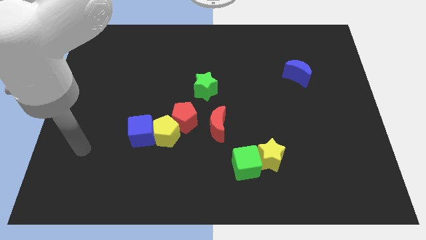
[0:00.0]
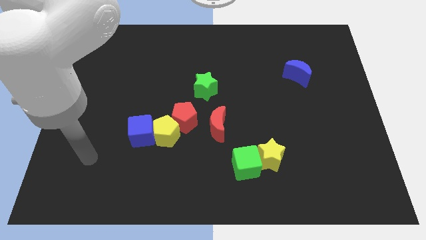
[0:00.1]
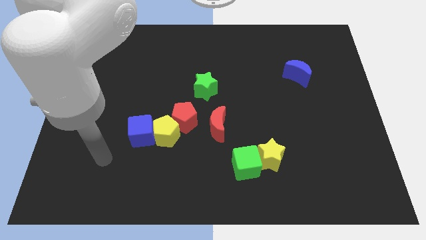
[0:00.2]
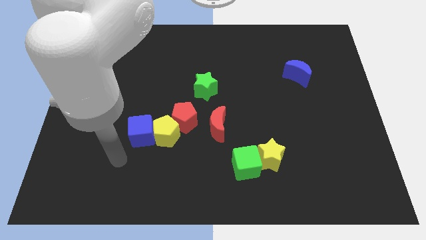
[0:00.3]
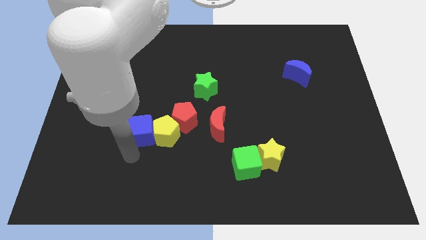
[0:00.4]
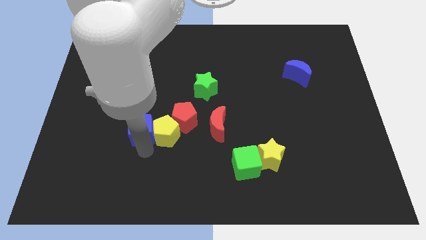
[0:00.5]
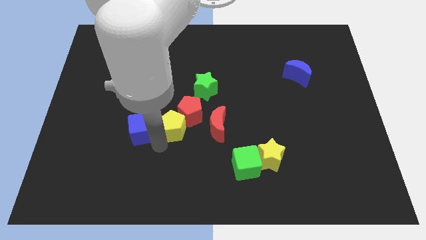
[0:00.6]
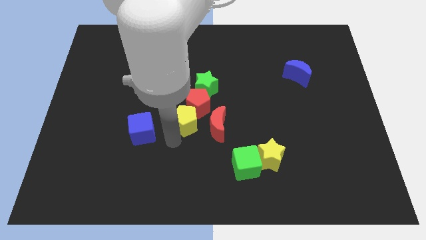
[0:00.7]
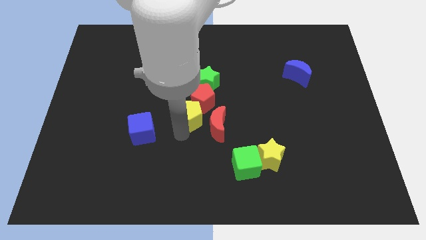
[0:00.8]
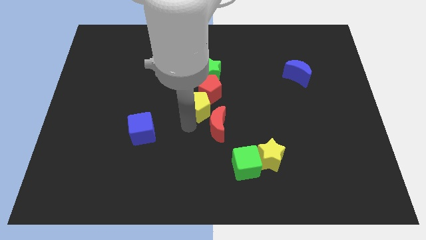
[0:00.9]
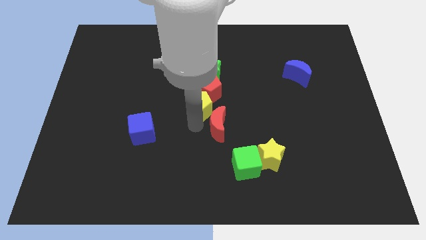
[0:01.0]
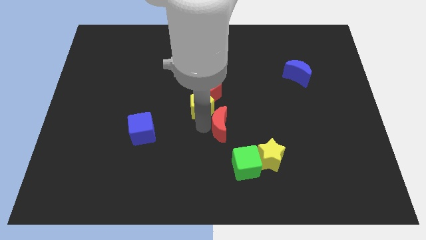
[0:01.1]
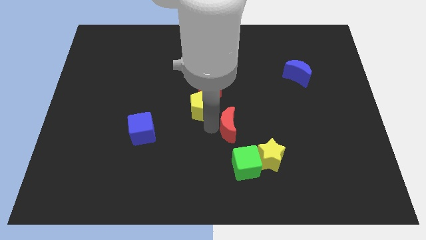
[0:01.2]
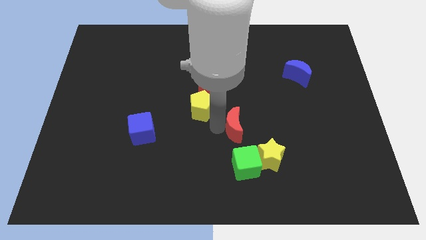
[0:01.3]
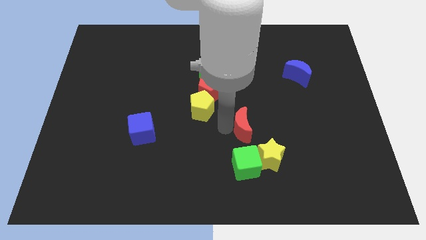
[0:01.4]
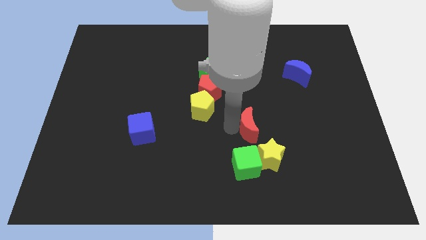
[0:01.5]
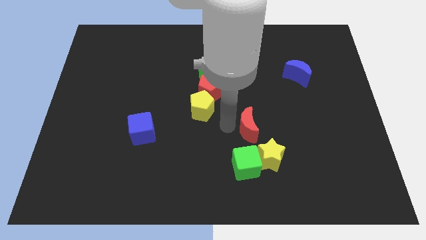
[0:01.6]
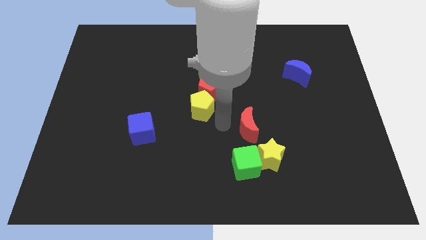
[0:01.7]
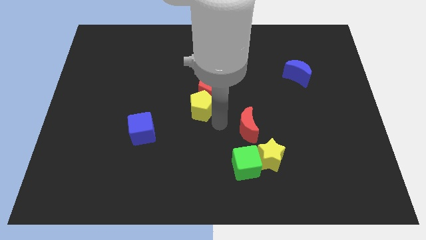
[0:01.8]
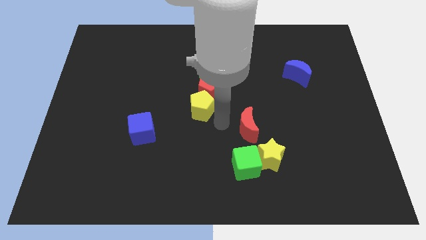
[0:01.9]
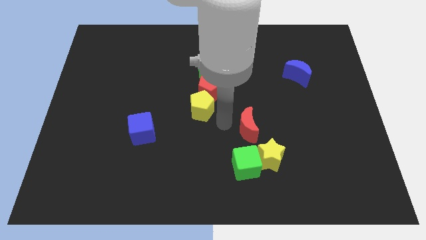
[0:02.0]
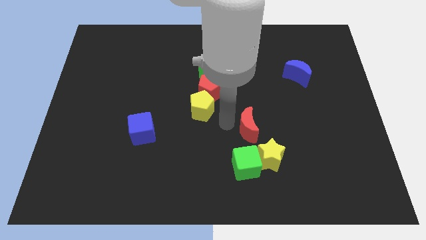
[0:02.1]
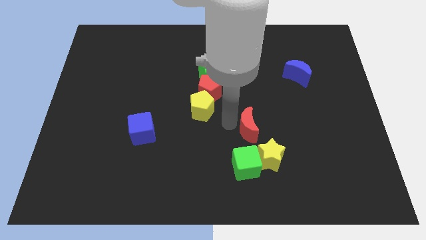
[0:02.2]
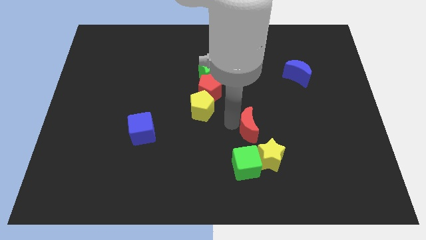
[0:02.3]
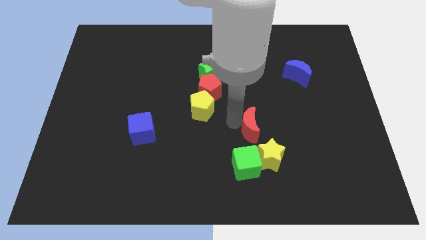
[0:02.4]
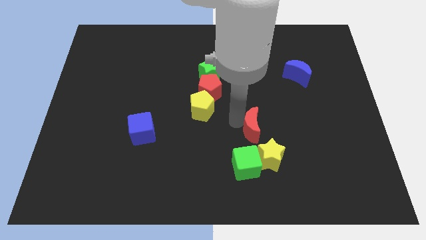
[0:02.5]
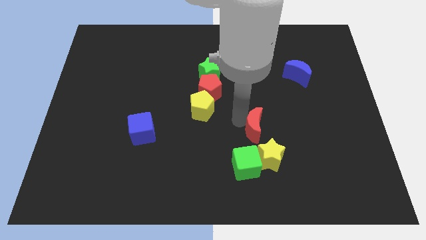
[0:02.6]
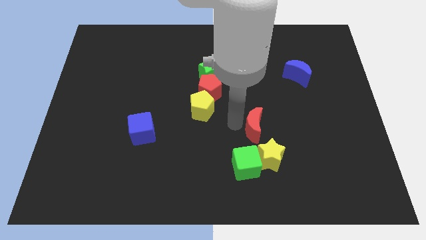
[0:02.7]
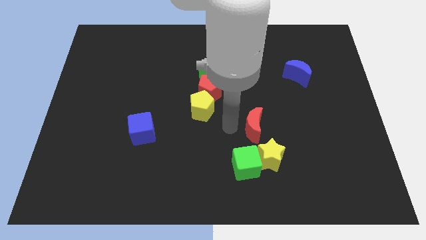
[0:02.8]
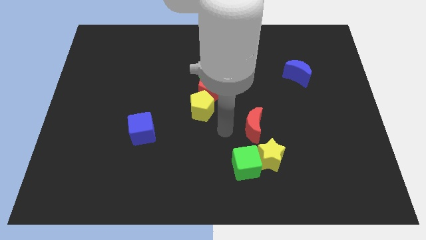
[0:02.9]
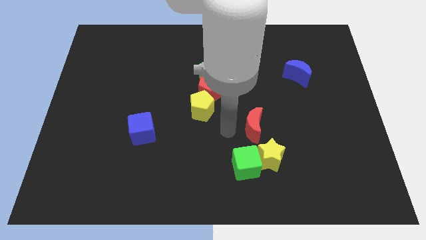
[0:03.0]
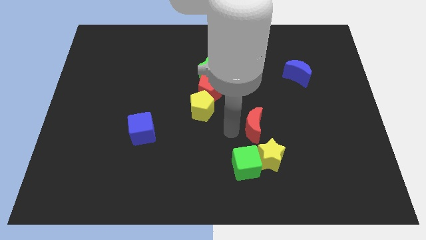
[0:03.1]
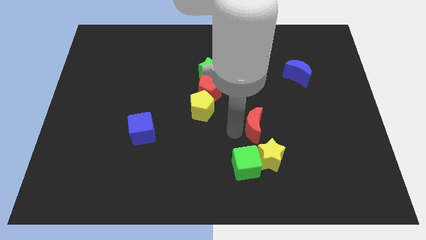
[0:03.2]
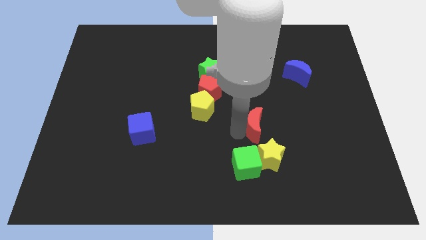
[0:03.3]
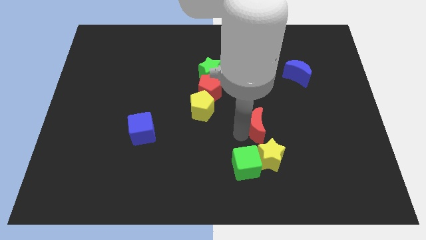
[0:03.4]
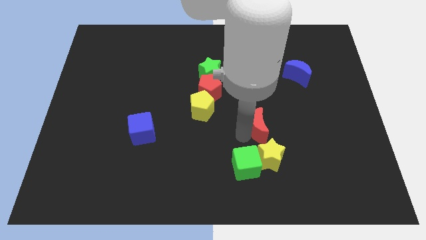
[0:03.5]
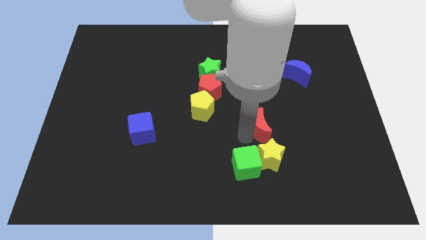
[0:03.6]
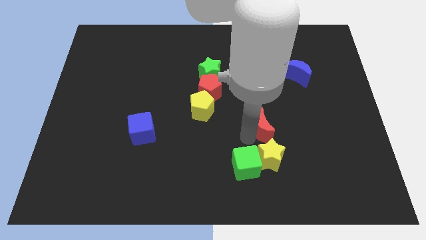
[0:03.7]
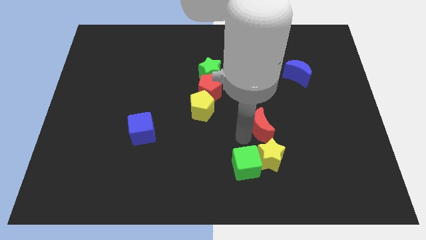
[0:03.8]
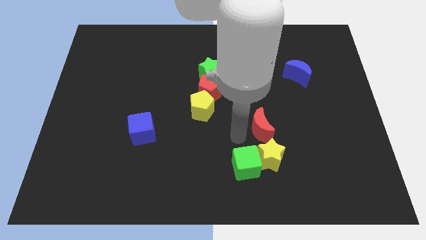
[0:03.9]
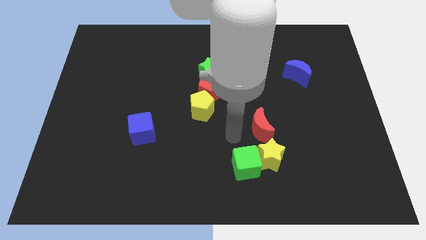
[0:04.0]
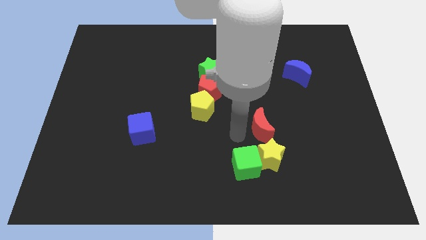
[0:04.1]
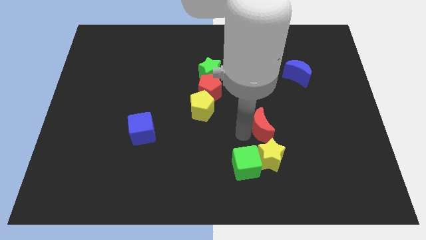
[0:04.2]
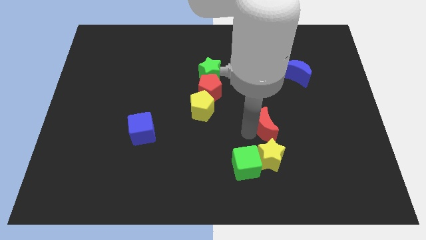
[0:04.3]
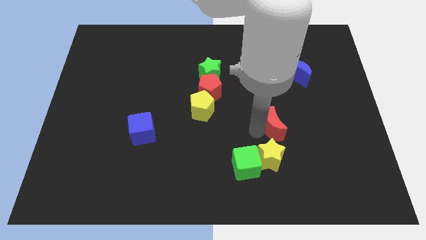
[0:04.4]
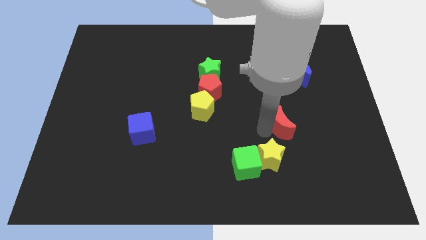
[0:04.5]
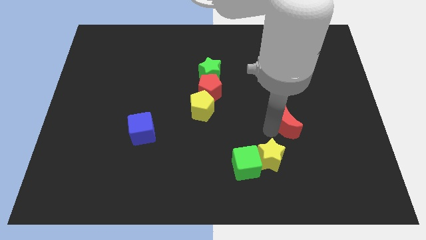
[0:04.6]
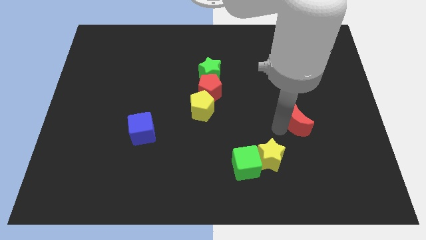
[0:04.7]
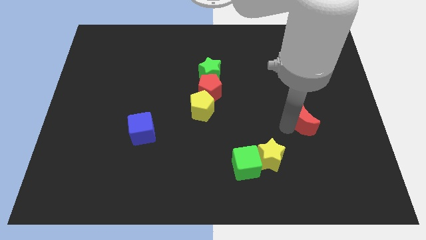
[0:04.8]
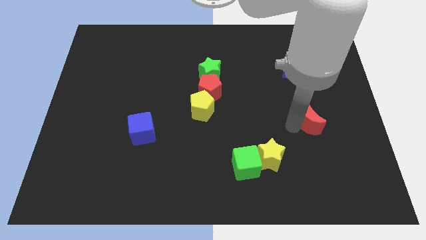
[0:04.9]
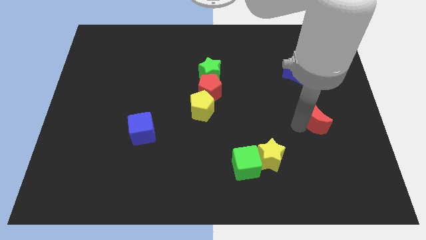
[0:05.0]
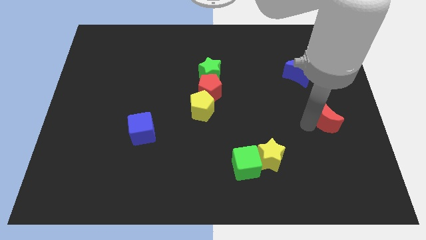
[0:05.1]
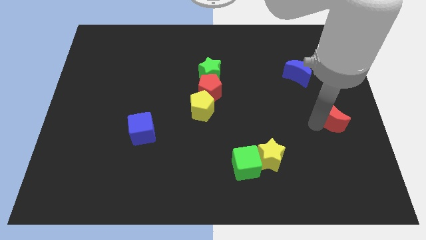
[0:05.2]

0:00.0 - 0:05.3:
slide the red moon to the right side of the board

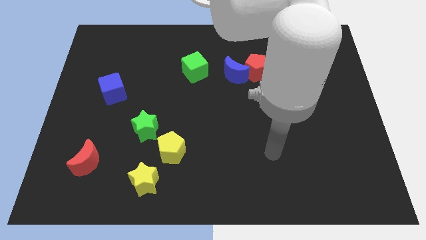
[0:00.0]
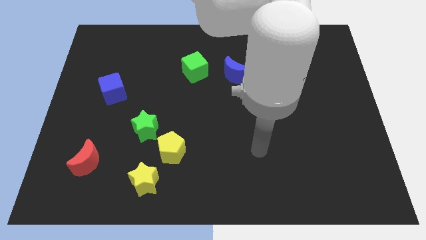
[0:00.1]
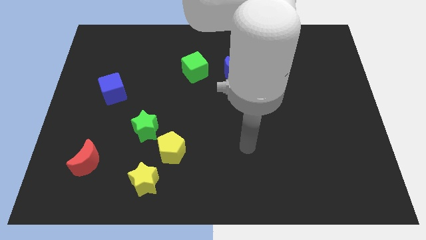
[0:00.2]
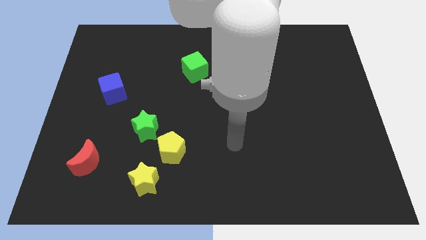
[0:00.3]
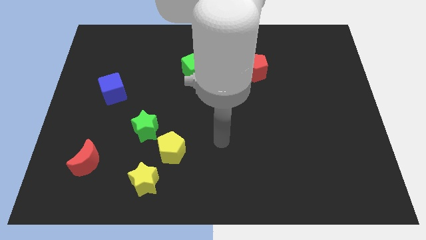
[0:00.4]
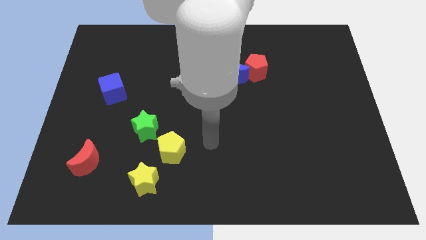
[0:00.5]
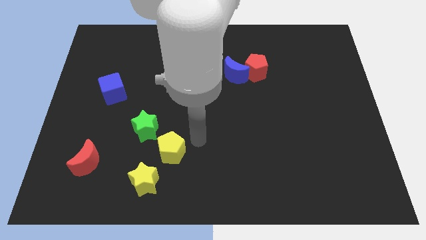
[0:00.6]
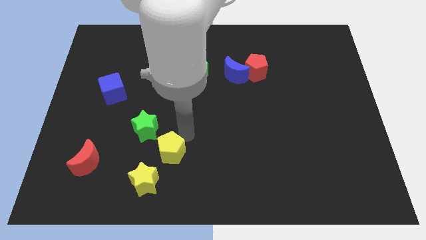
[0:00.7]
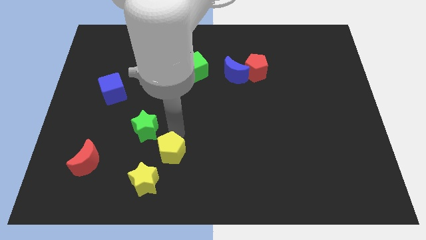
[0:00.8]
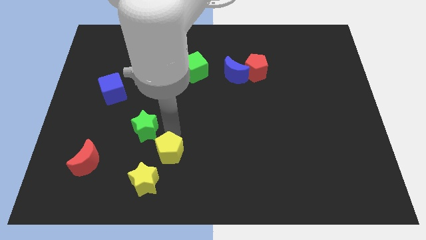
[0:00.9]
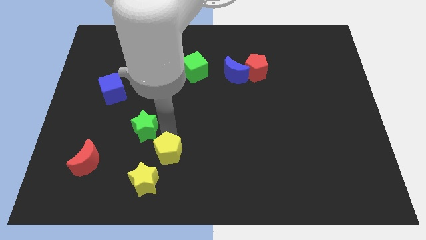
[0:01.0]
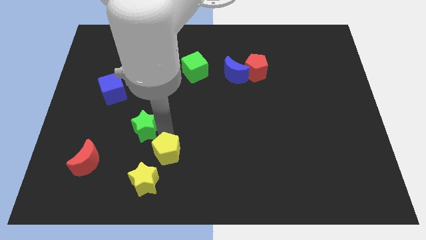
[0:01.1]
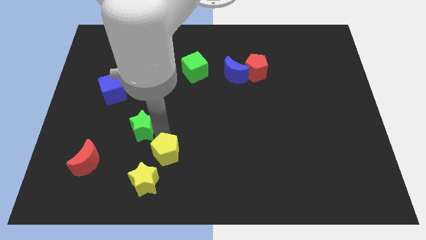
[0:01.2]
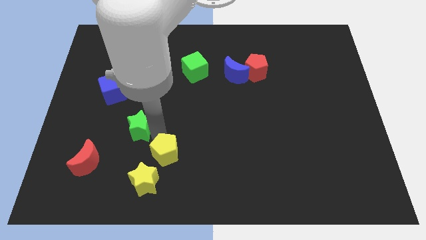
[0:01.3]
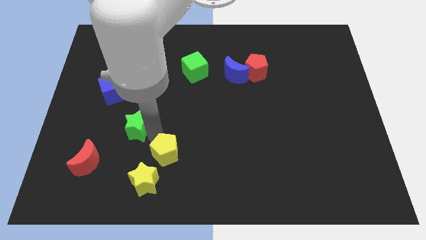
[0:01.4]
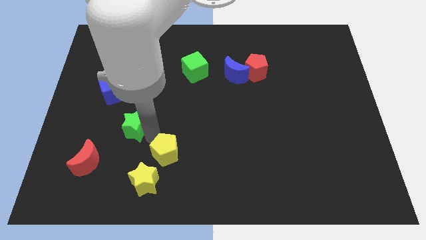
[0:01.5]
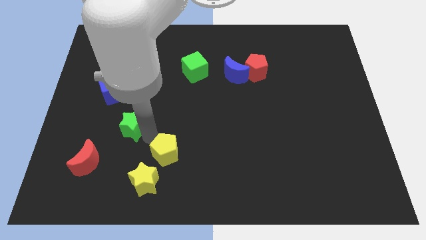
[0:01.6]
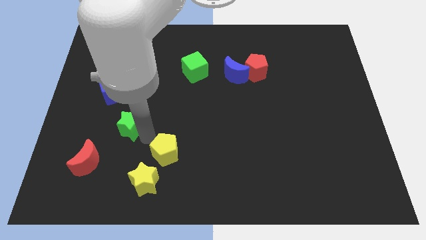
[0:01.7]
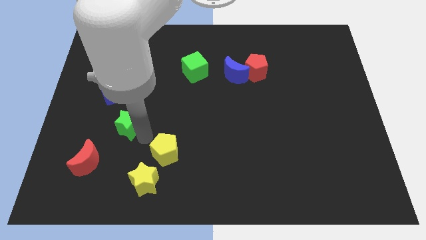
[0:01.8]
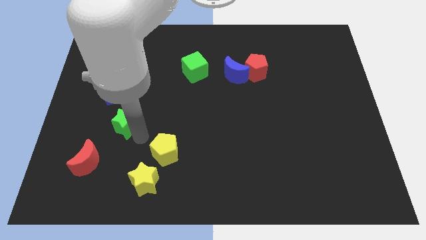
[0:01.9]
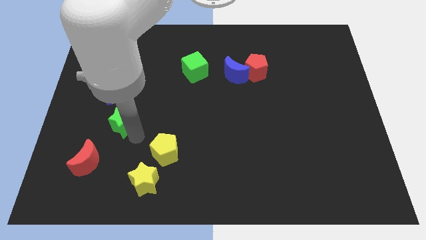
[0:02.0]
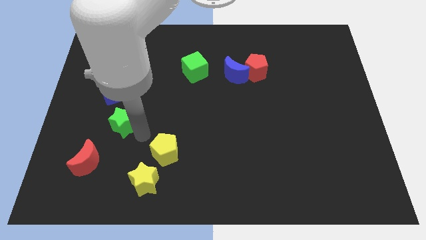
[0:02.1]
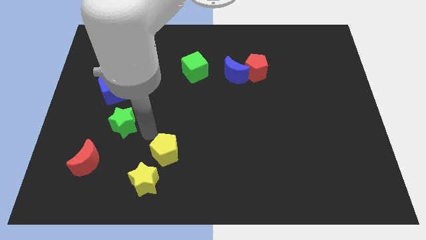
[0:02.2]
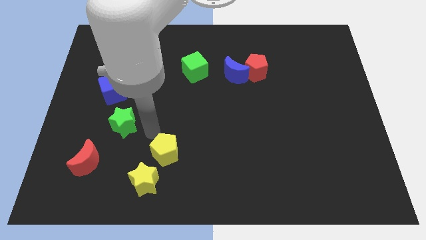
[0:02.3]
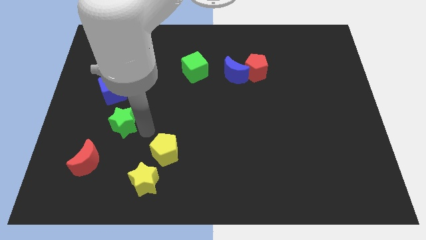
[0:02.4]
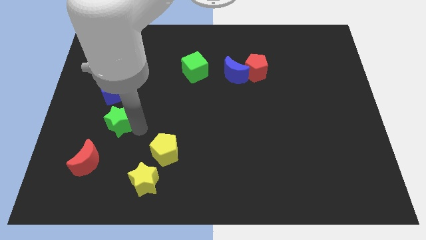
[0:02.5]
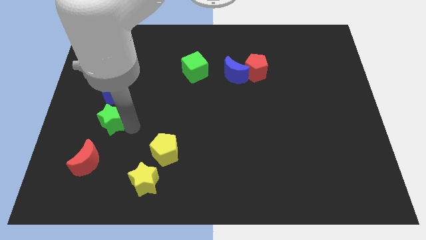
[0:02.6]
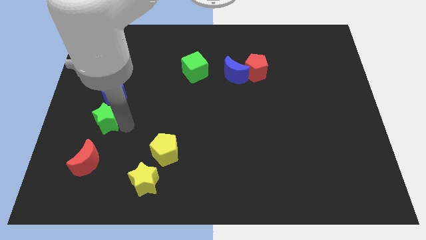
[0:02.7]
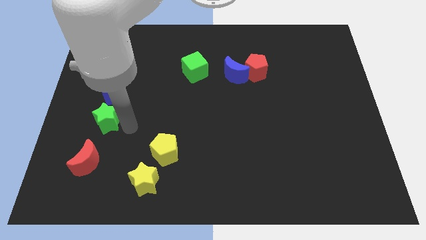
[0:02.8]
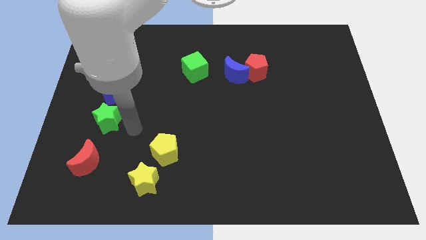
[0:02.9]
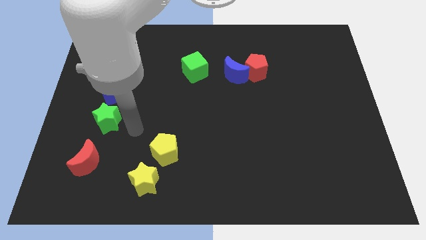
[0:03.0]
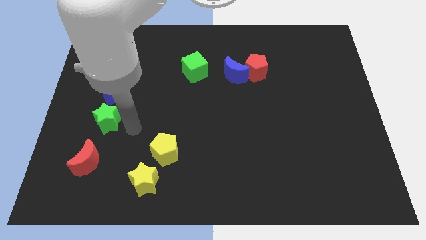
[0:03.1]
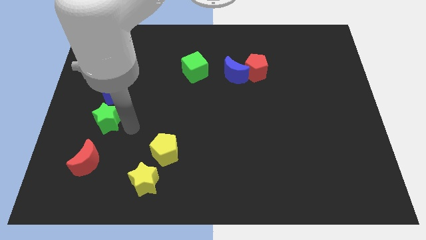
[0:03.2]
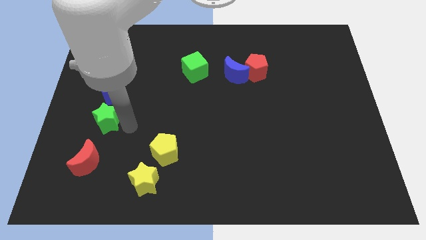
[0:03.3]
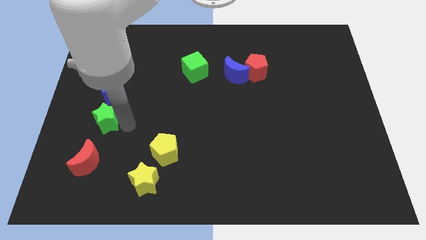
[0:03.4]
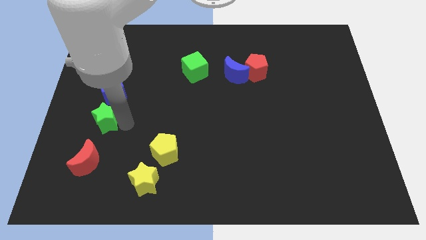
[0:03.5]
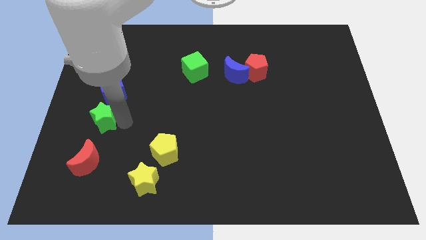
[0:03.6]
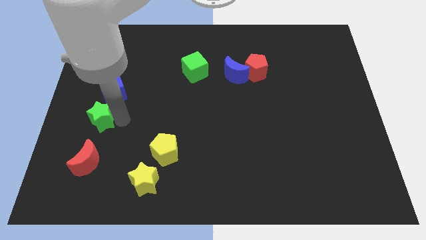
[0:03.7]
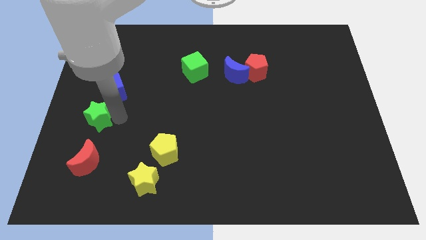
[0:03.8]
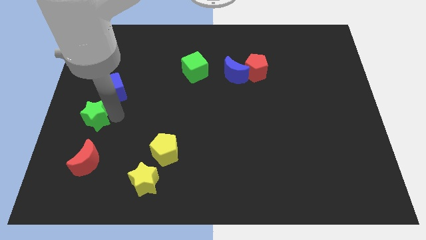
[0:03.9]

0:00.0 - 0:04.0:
slide the green star to the left side of the board
